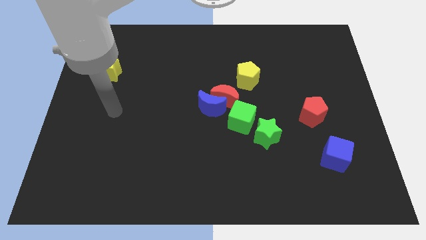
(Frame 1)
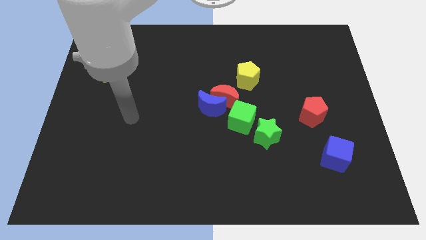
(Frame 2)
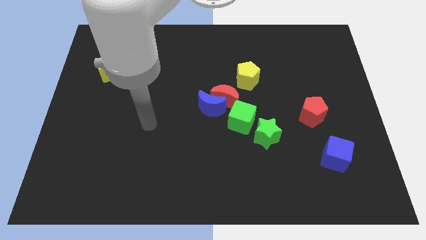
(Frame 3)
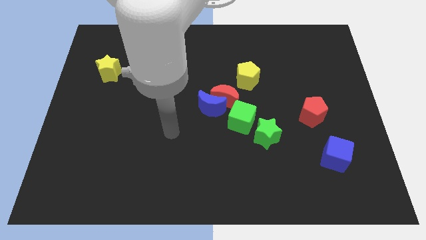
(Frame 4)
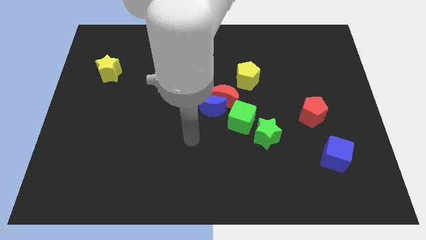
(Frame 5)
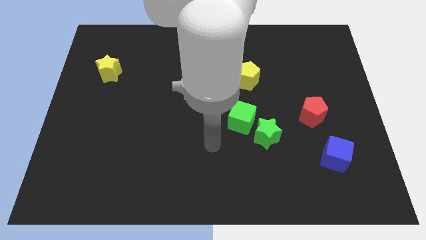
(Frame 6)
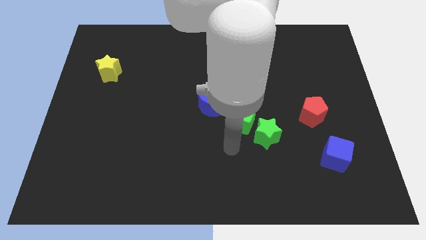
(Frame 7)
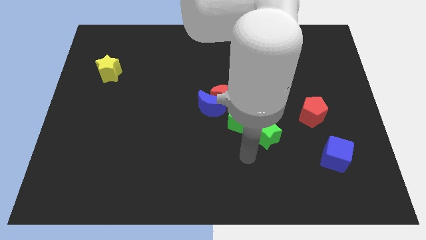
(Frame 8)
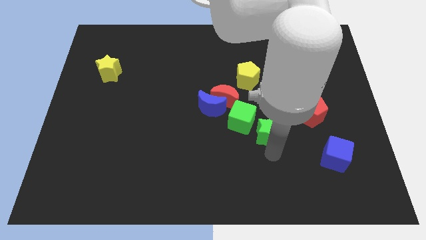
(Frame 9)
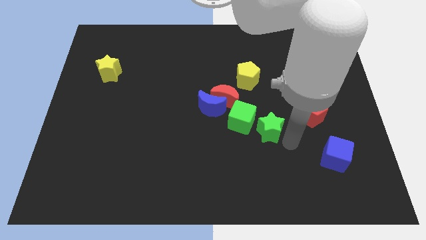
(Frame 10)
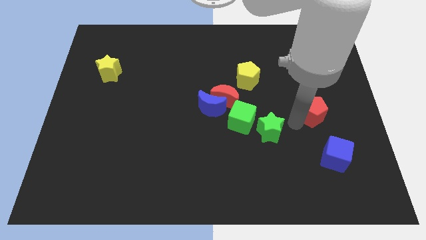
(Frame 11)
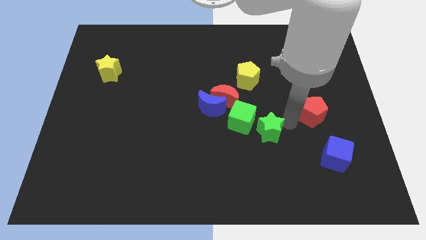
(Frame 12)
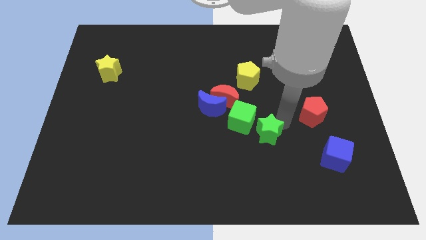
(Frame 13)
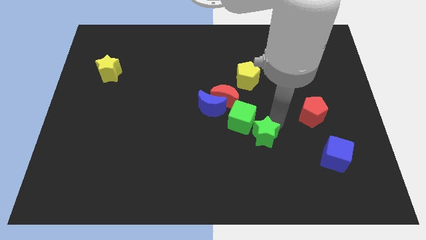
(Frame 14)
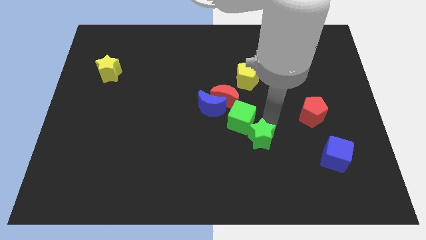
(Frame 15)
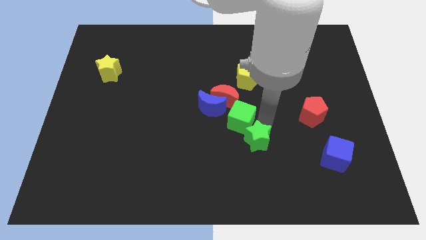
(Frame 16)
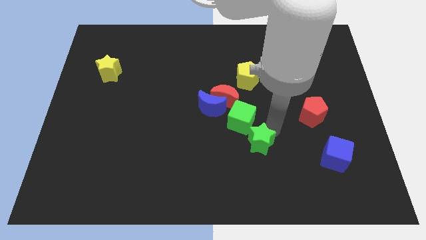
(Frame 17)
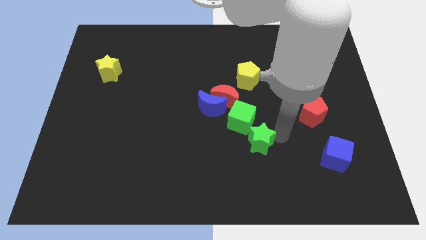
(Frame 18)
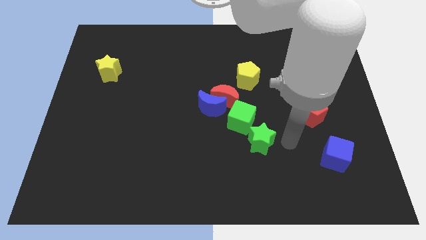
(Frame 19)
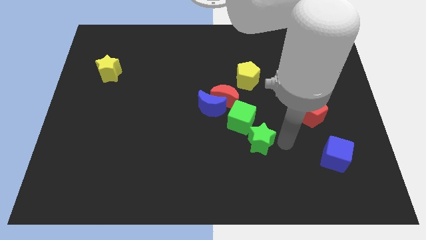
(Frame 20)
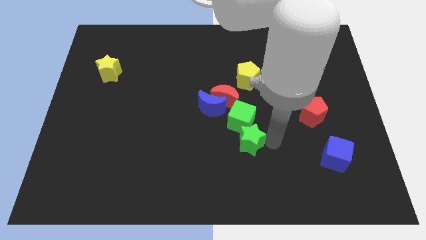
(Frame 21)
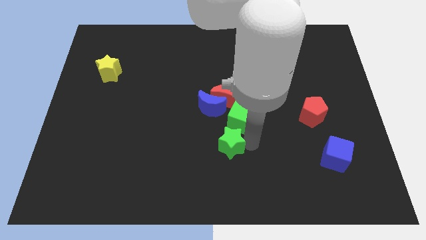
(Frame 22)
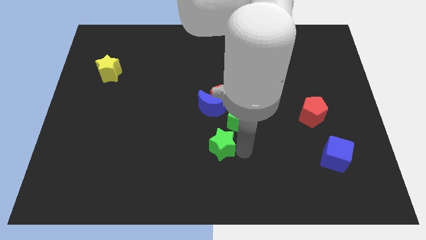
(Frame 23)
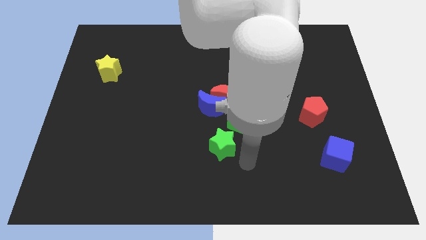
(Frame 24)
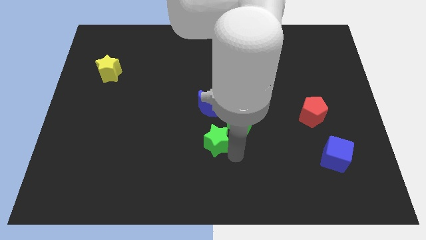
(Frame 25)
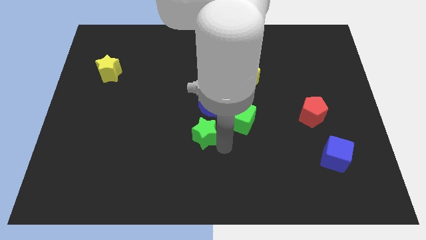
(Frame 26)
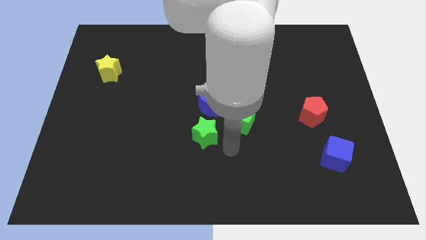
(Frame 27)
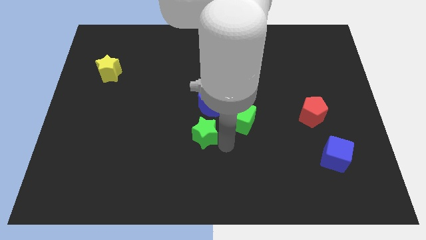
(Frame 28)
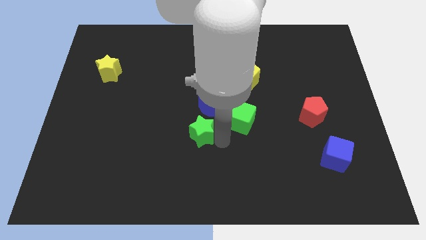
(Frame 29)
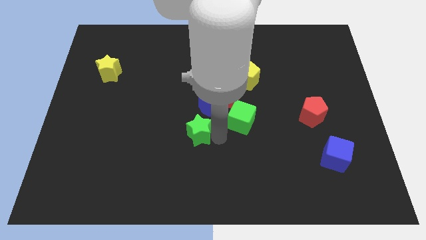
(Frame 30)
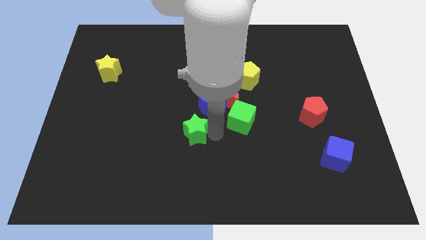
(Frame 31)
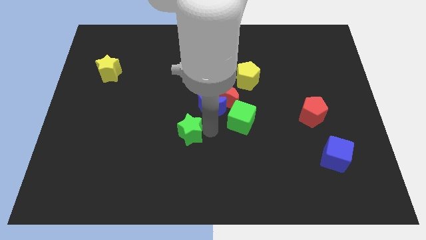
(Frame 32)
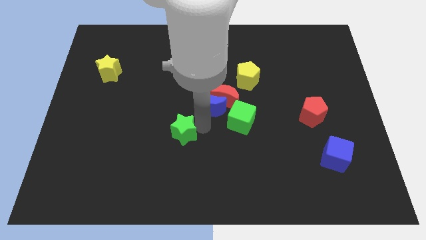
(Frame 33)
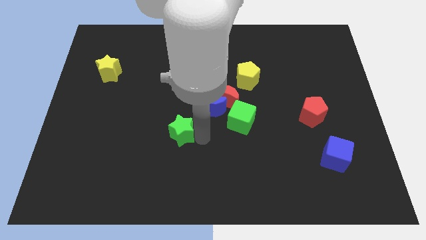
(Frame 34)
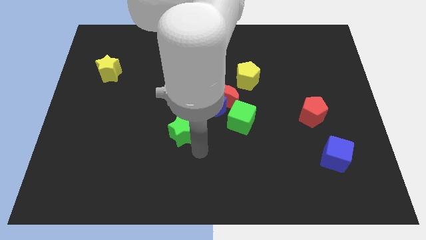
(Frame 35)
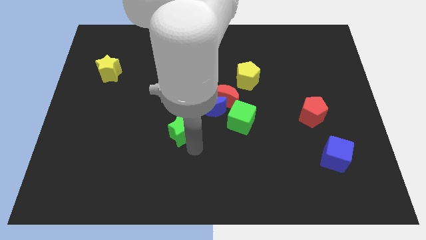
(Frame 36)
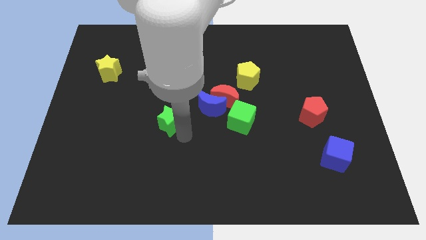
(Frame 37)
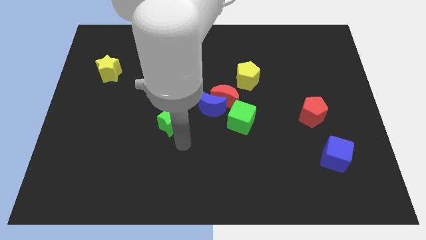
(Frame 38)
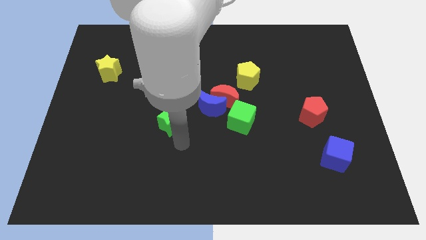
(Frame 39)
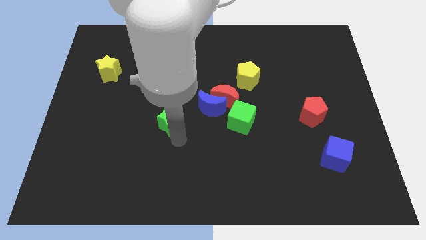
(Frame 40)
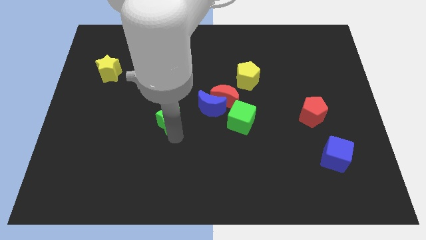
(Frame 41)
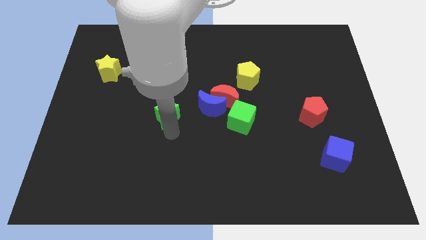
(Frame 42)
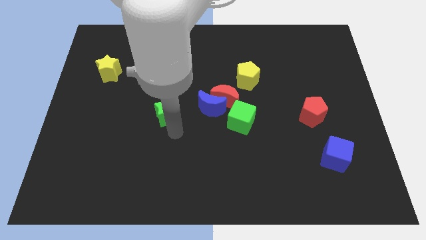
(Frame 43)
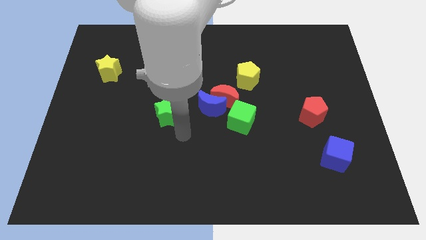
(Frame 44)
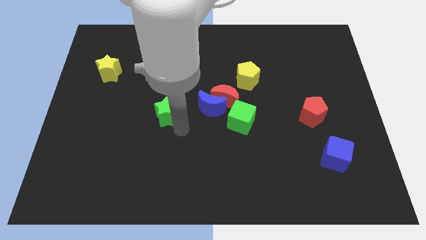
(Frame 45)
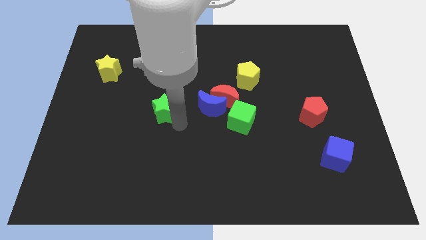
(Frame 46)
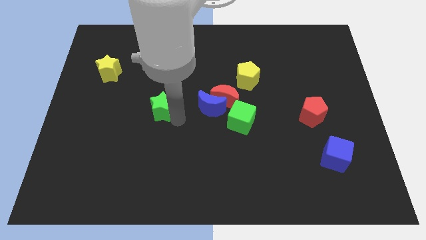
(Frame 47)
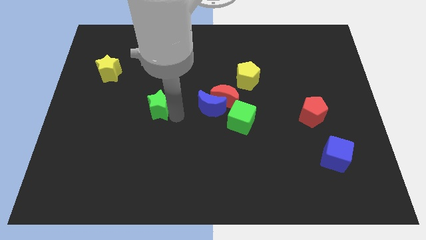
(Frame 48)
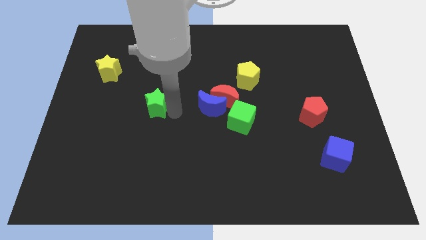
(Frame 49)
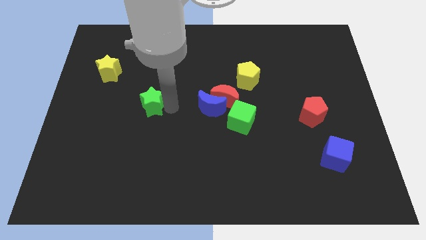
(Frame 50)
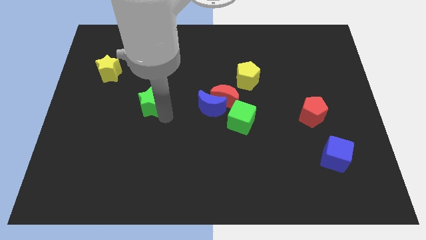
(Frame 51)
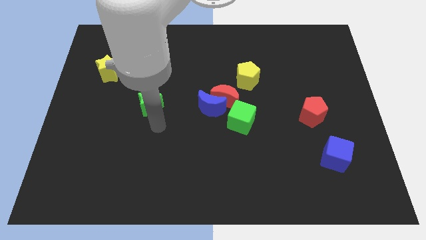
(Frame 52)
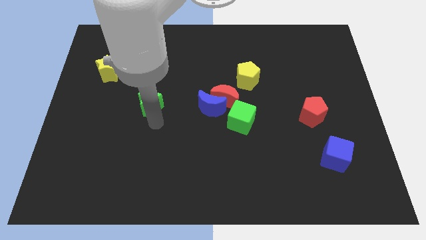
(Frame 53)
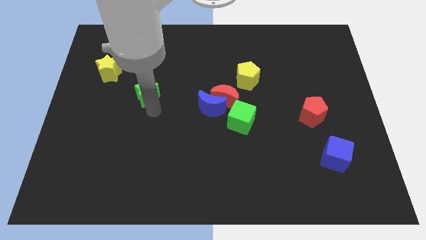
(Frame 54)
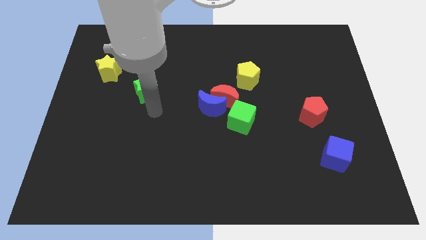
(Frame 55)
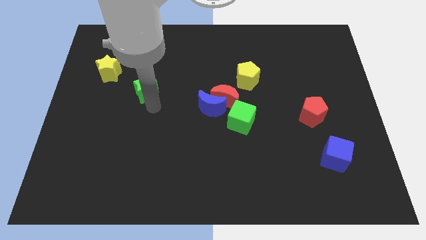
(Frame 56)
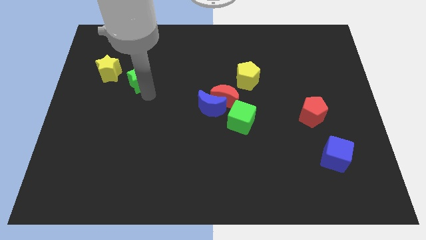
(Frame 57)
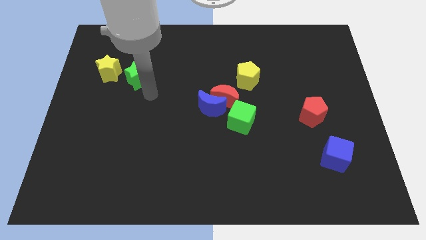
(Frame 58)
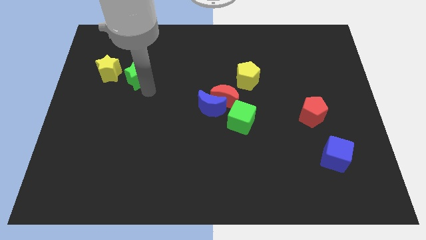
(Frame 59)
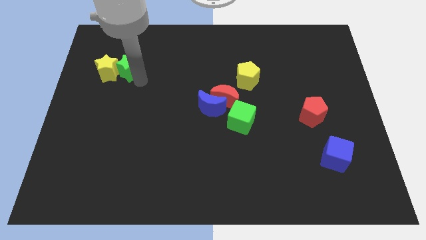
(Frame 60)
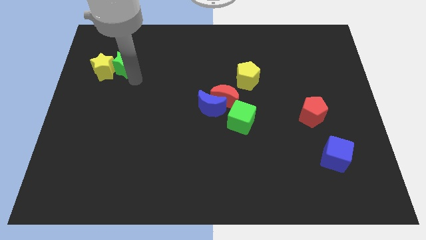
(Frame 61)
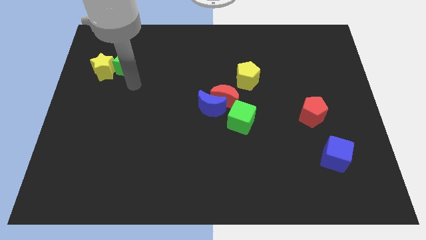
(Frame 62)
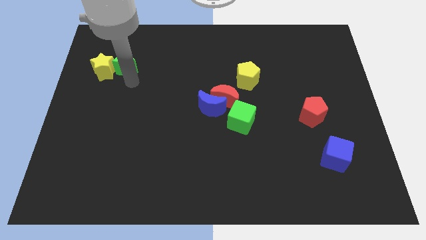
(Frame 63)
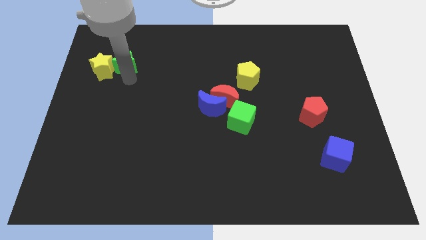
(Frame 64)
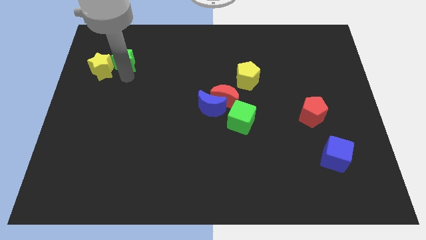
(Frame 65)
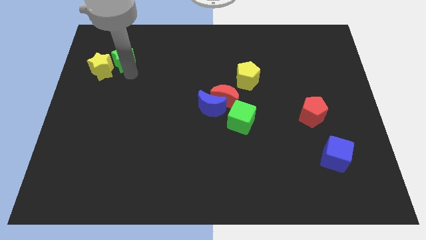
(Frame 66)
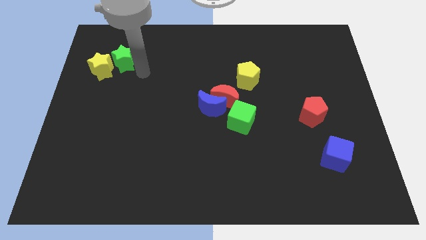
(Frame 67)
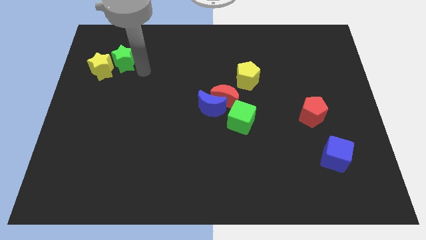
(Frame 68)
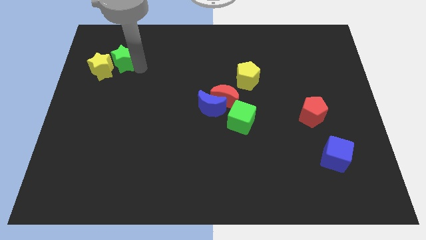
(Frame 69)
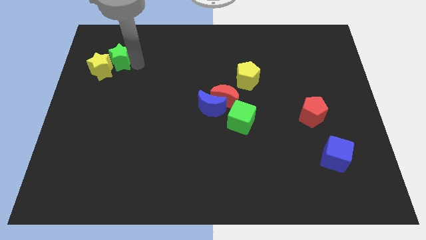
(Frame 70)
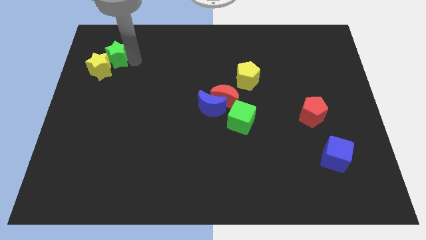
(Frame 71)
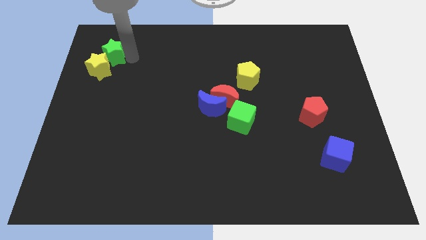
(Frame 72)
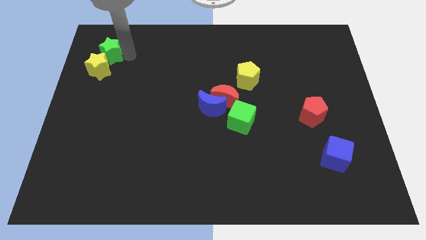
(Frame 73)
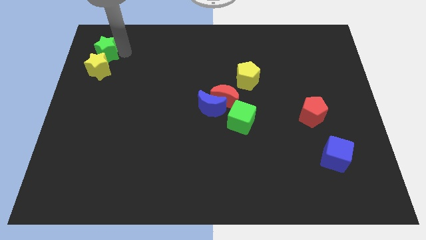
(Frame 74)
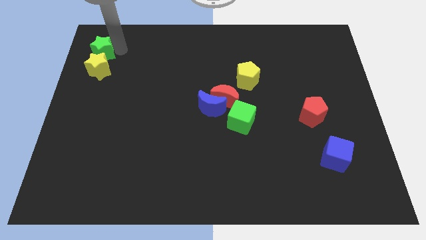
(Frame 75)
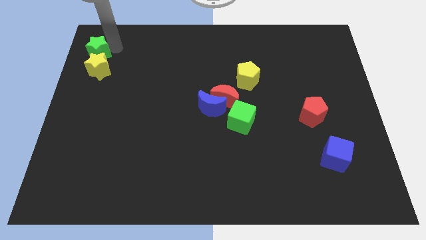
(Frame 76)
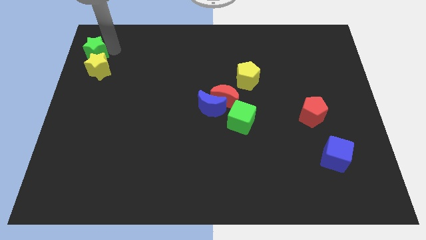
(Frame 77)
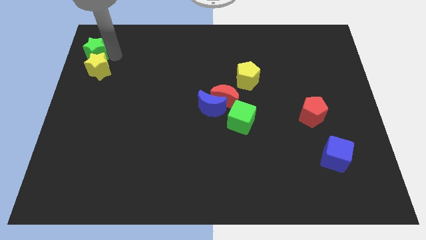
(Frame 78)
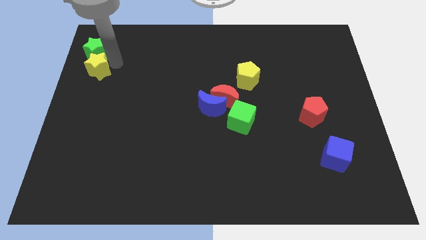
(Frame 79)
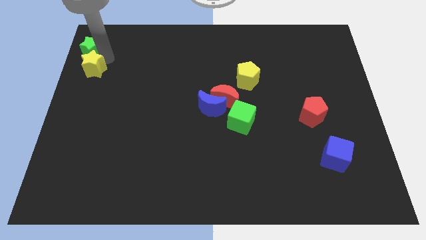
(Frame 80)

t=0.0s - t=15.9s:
move the green star to the top left corner
